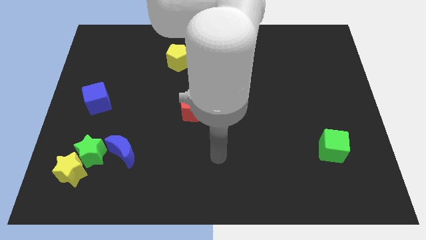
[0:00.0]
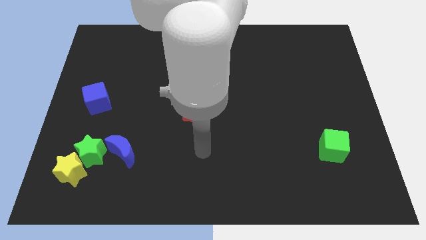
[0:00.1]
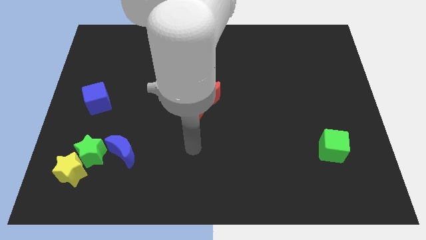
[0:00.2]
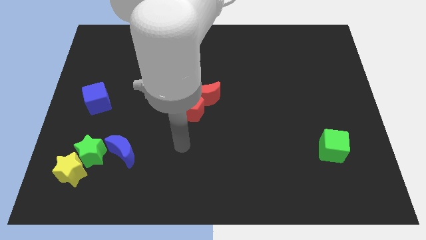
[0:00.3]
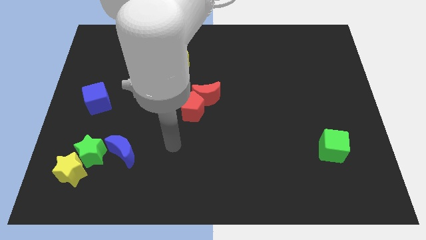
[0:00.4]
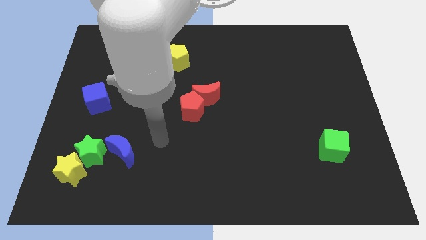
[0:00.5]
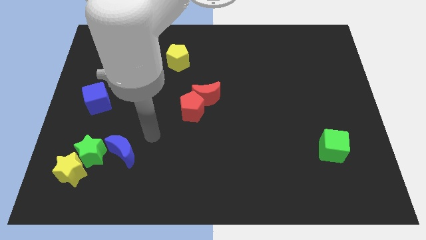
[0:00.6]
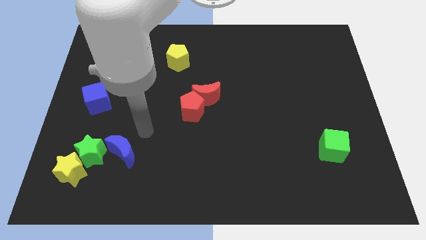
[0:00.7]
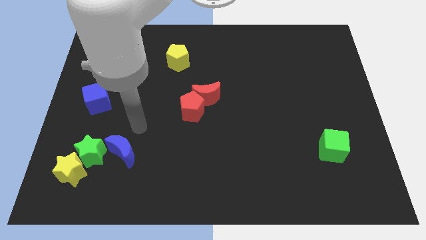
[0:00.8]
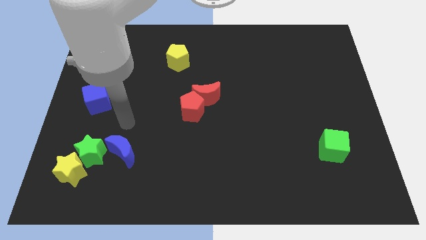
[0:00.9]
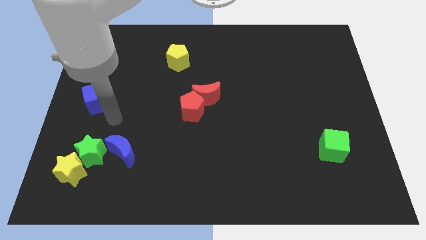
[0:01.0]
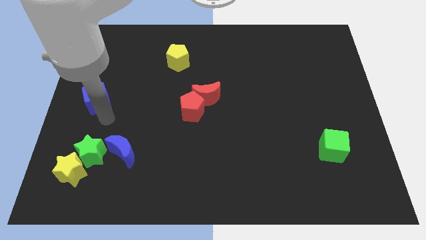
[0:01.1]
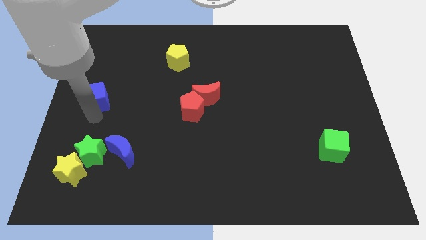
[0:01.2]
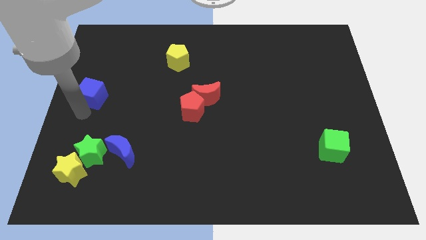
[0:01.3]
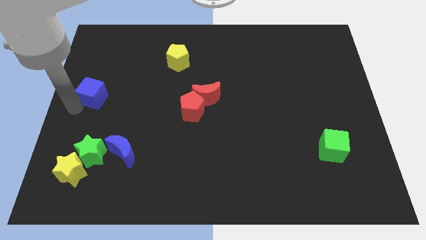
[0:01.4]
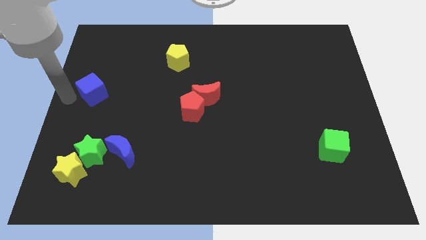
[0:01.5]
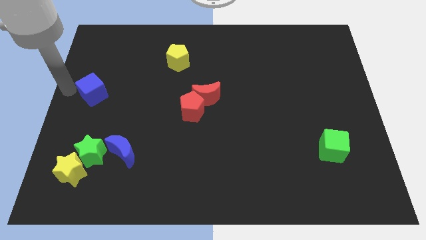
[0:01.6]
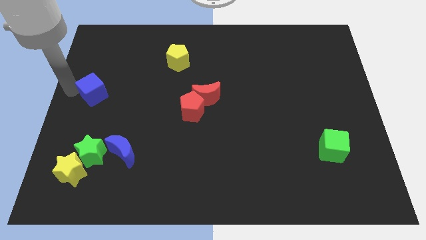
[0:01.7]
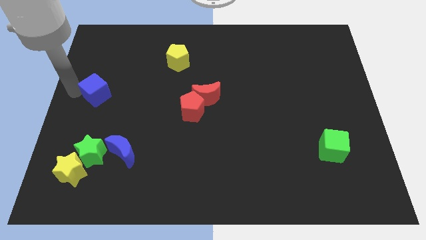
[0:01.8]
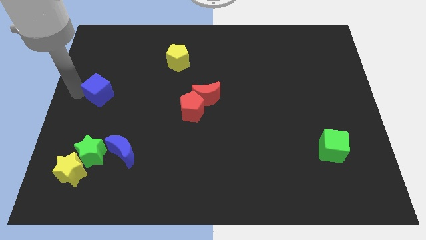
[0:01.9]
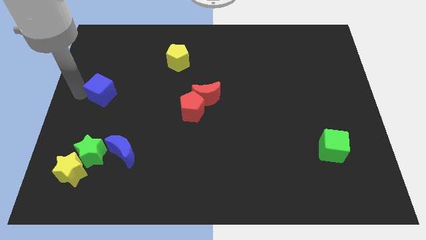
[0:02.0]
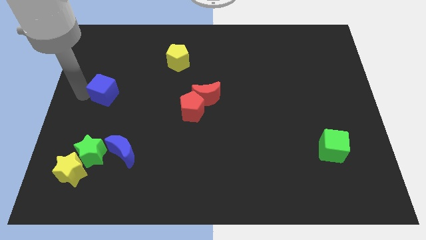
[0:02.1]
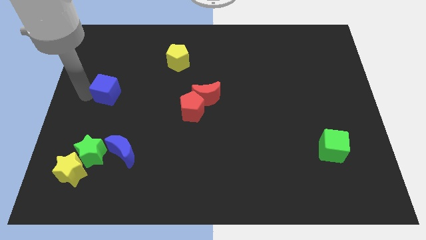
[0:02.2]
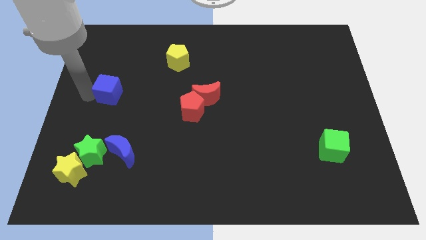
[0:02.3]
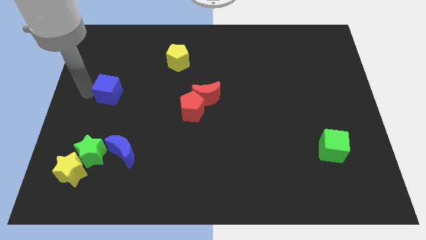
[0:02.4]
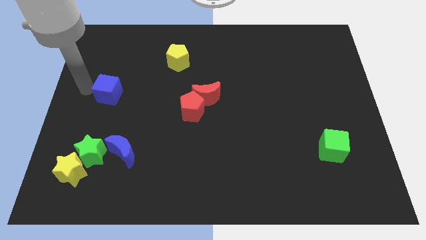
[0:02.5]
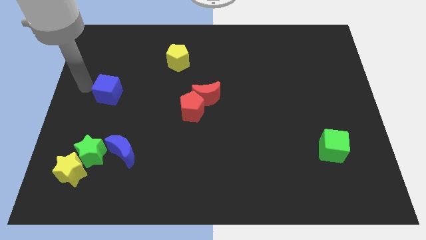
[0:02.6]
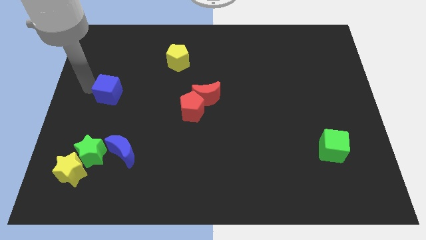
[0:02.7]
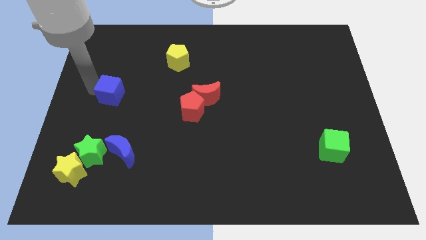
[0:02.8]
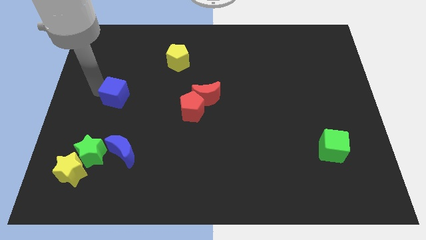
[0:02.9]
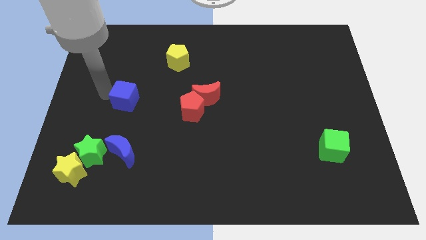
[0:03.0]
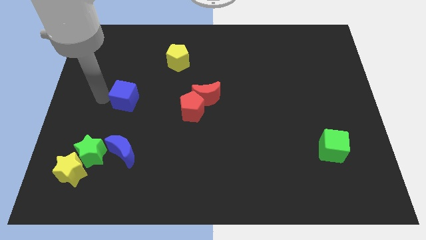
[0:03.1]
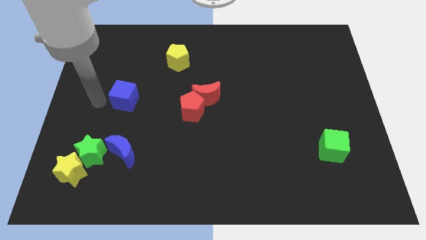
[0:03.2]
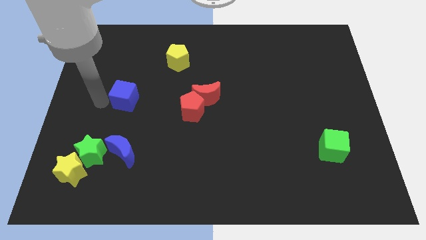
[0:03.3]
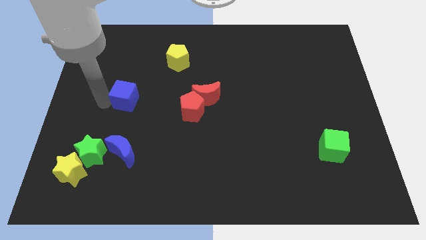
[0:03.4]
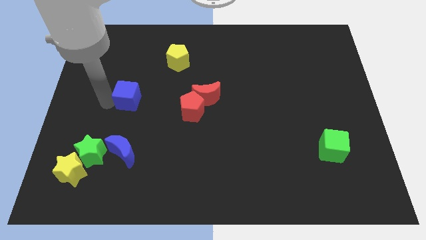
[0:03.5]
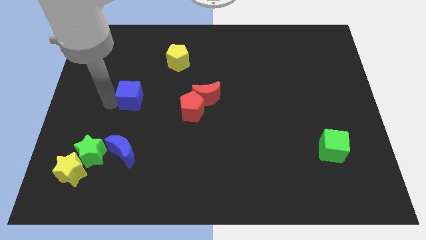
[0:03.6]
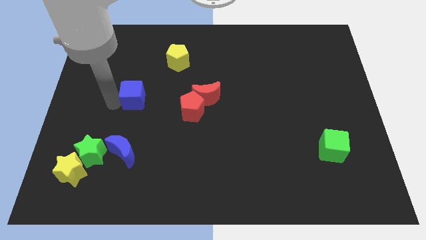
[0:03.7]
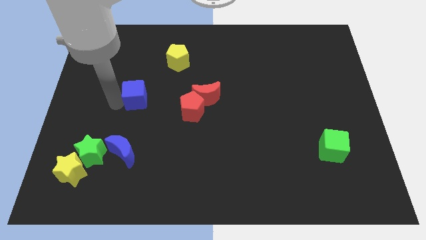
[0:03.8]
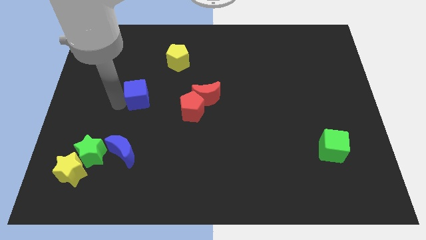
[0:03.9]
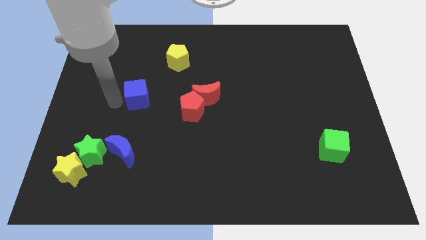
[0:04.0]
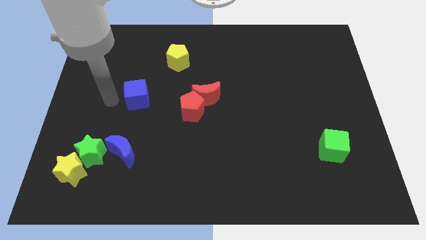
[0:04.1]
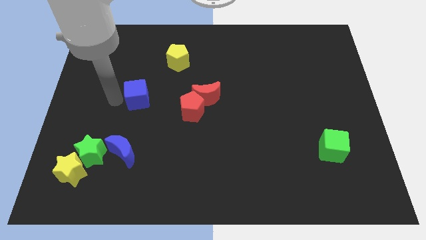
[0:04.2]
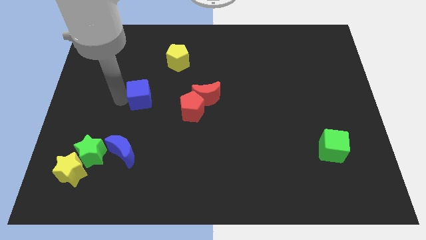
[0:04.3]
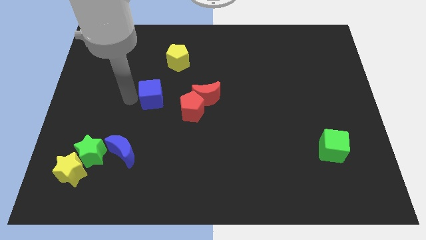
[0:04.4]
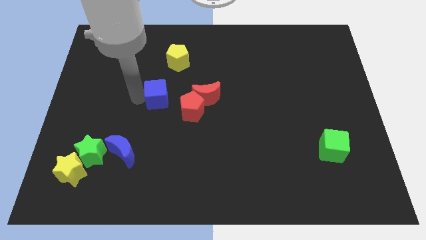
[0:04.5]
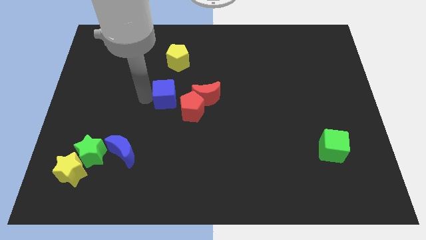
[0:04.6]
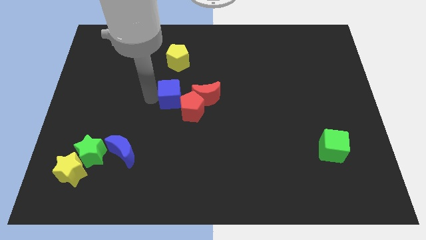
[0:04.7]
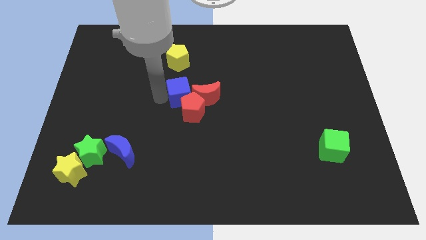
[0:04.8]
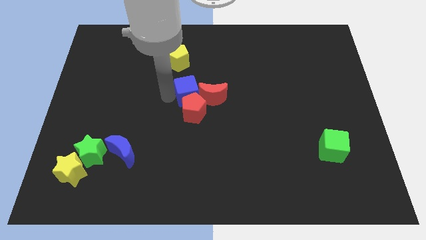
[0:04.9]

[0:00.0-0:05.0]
slide the blue cube to the red moon

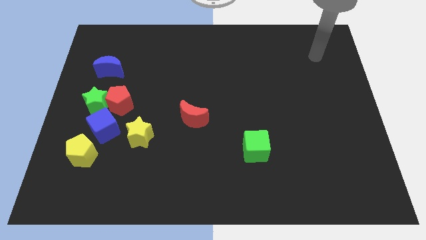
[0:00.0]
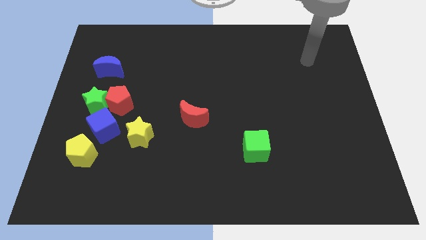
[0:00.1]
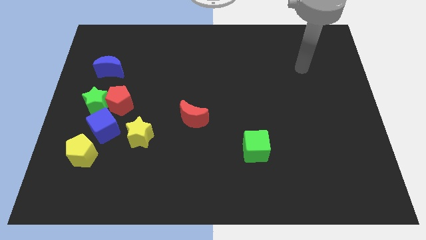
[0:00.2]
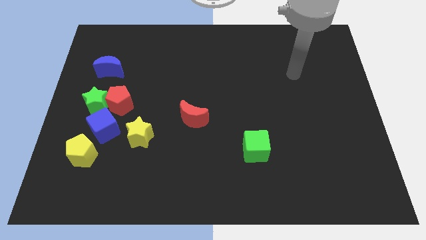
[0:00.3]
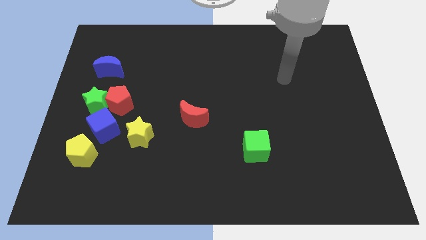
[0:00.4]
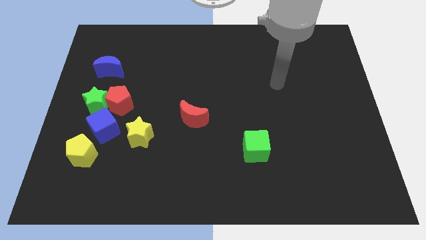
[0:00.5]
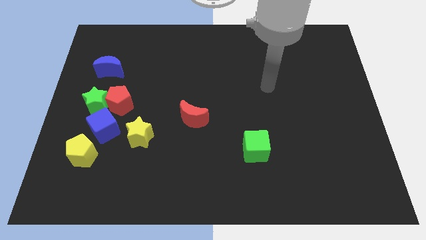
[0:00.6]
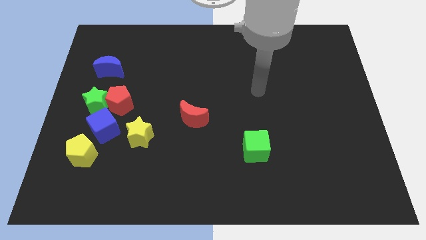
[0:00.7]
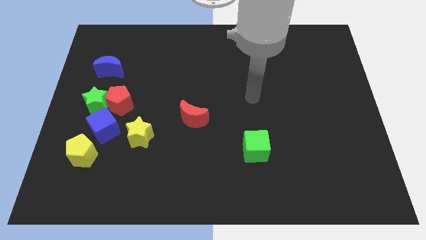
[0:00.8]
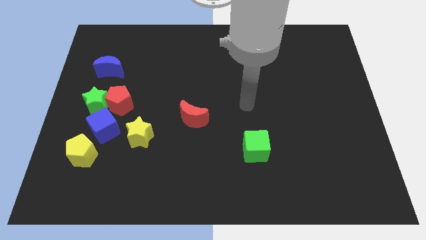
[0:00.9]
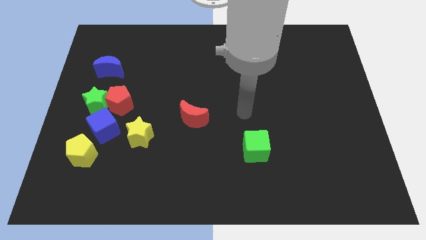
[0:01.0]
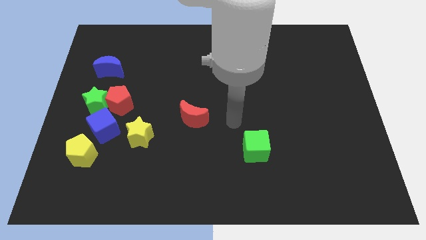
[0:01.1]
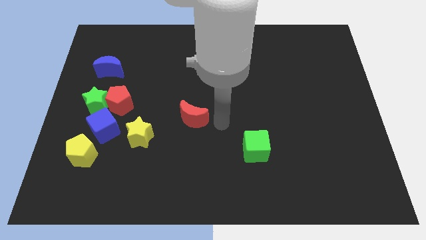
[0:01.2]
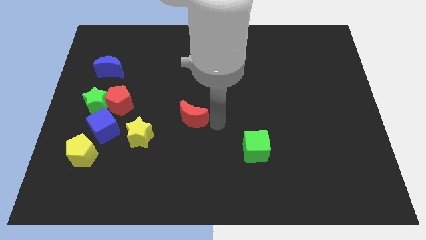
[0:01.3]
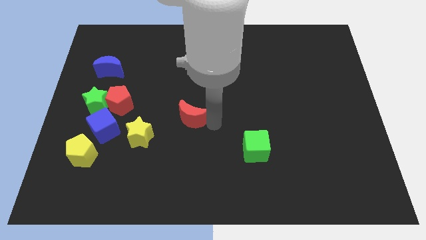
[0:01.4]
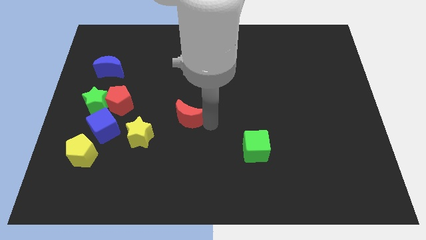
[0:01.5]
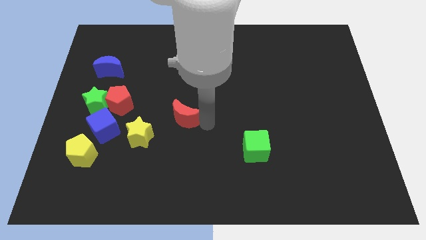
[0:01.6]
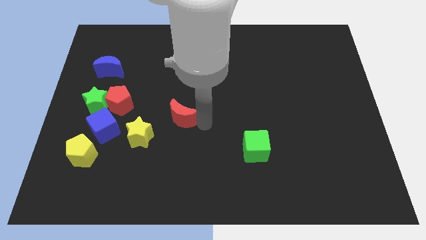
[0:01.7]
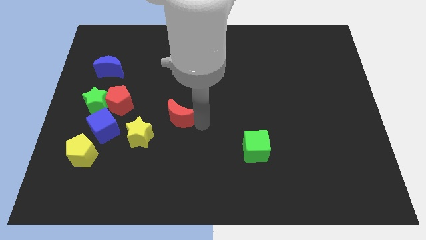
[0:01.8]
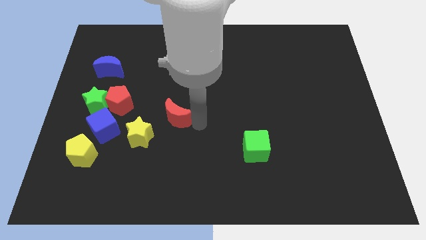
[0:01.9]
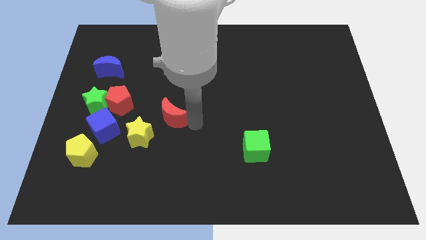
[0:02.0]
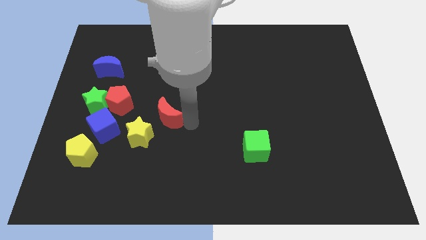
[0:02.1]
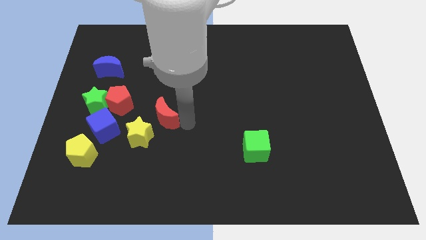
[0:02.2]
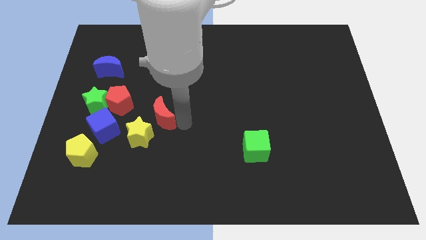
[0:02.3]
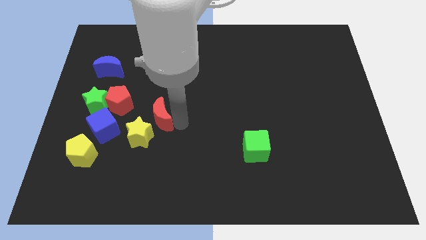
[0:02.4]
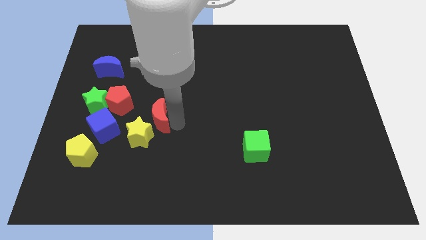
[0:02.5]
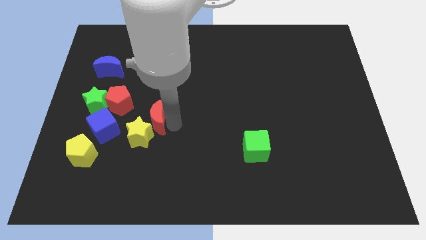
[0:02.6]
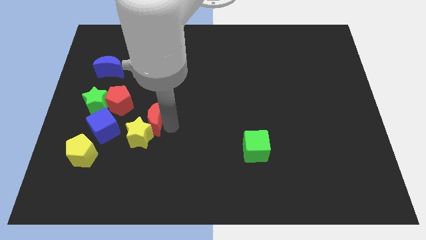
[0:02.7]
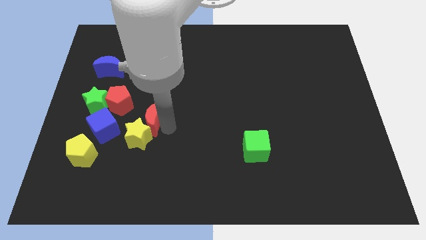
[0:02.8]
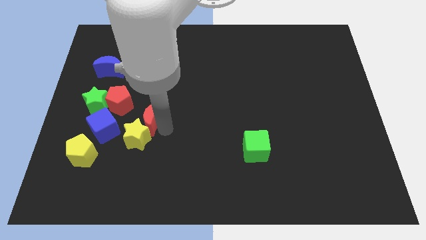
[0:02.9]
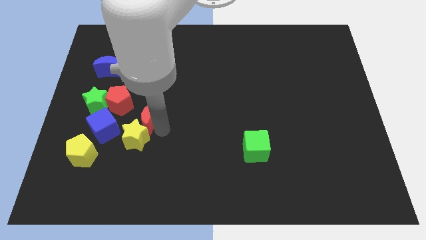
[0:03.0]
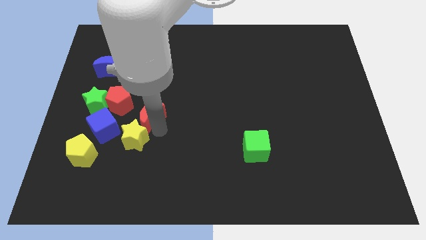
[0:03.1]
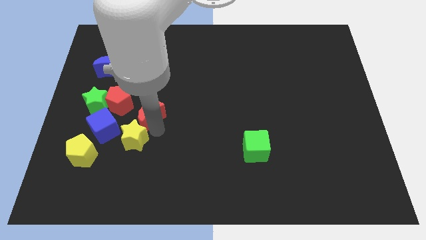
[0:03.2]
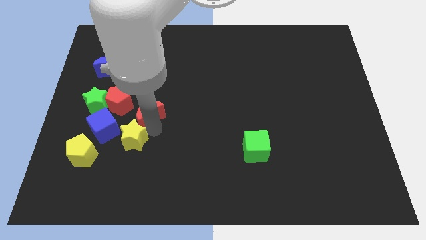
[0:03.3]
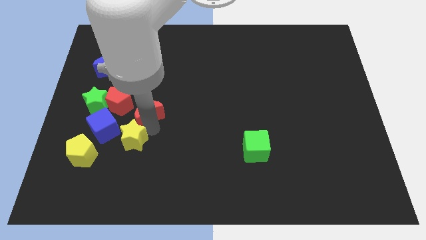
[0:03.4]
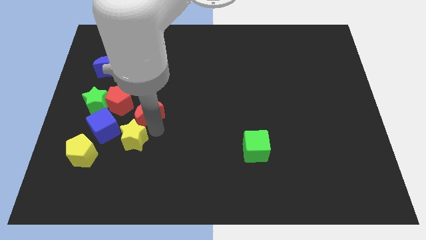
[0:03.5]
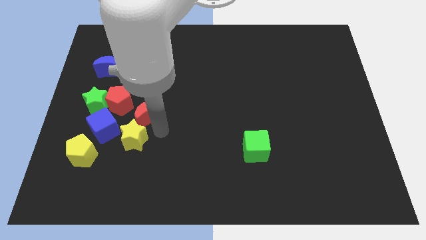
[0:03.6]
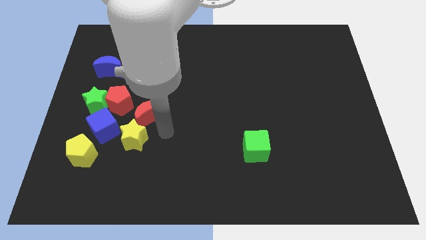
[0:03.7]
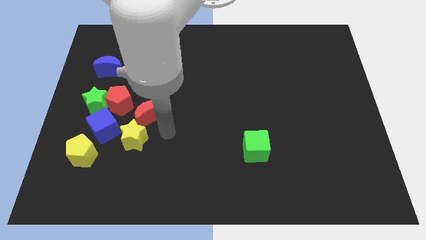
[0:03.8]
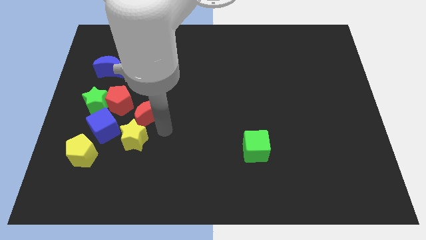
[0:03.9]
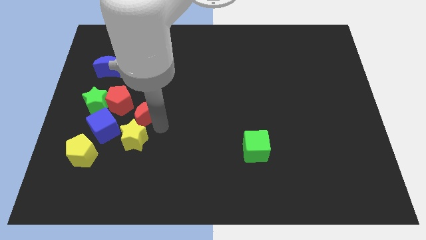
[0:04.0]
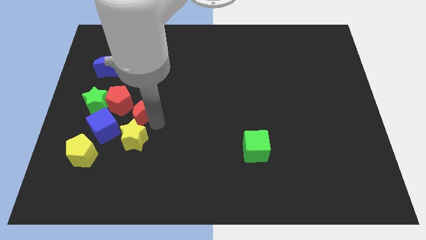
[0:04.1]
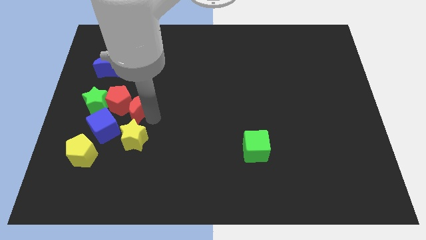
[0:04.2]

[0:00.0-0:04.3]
put the red moon next to the red pentagon
